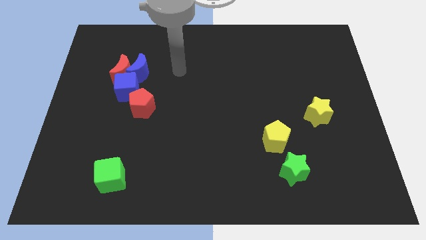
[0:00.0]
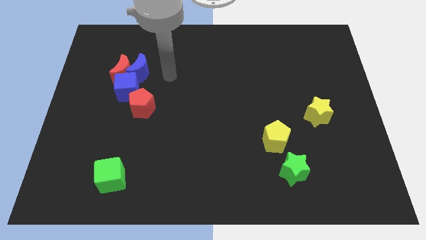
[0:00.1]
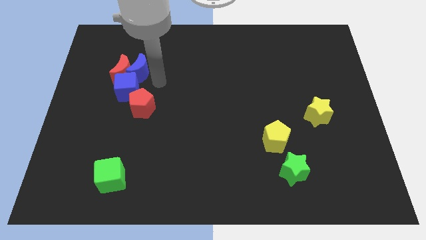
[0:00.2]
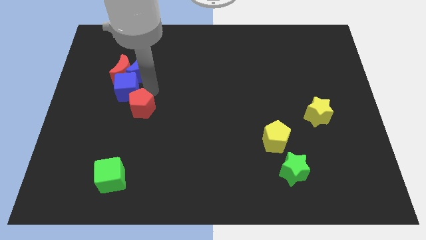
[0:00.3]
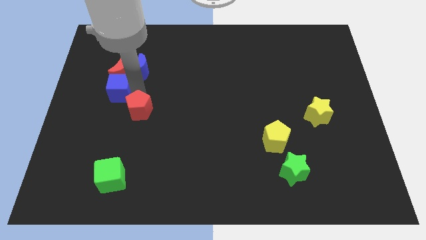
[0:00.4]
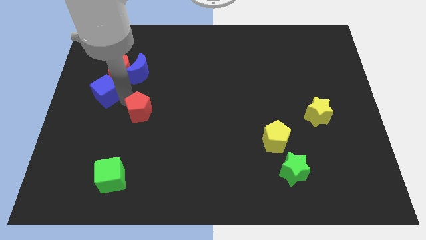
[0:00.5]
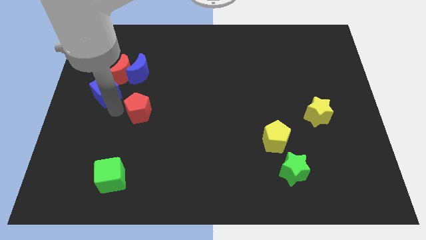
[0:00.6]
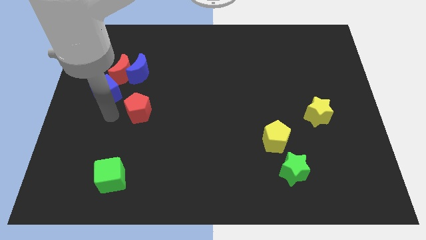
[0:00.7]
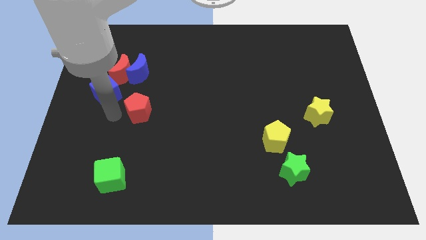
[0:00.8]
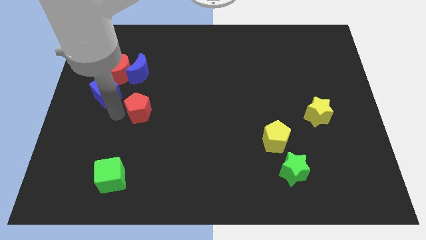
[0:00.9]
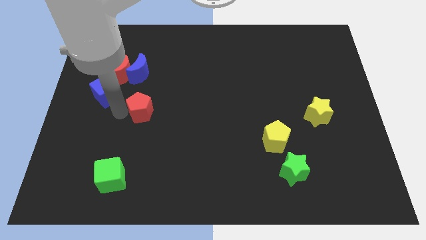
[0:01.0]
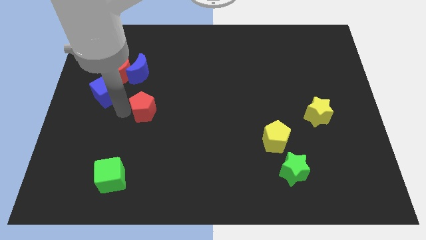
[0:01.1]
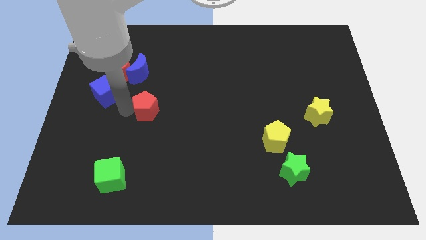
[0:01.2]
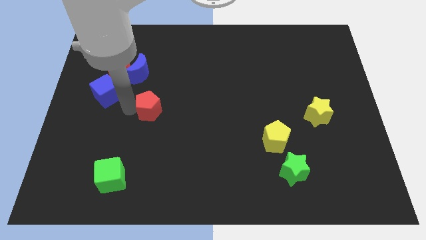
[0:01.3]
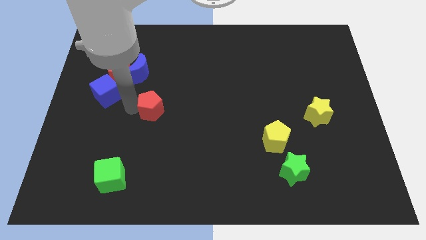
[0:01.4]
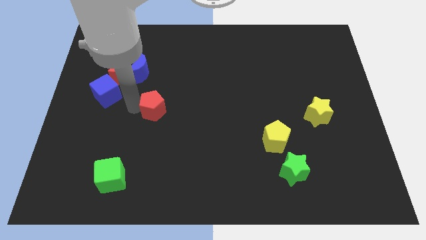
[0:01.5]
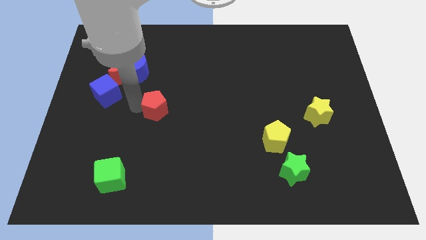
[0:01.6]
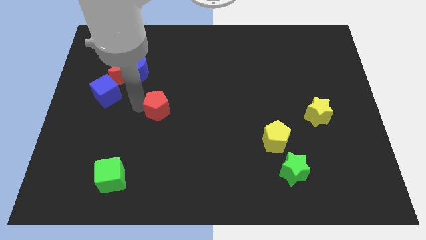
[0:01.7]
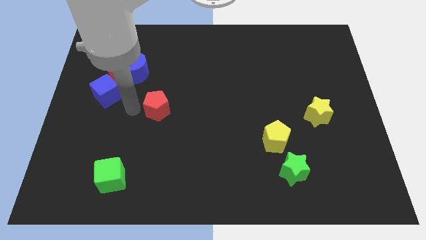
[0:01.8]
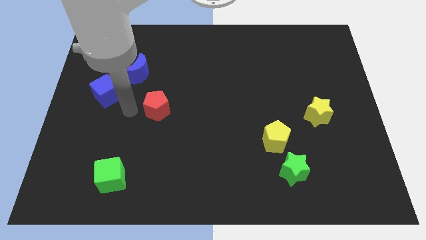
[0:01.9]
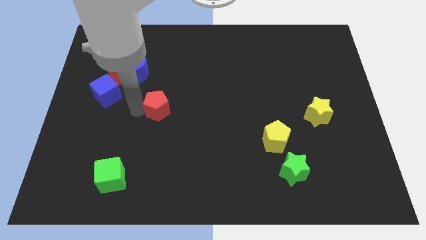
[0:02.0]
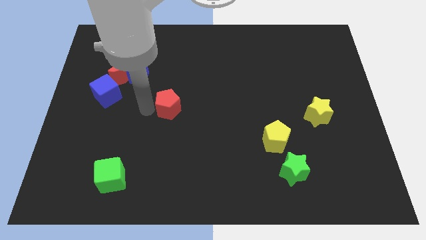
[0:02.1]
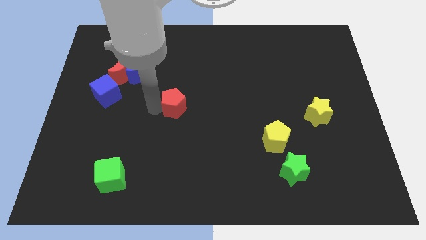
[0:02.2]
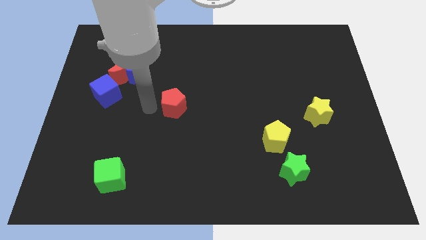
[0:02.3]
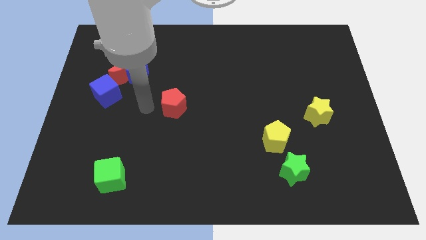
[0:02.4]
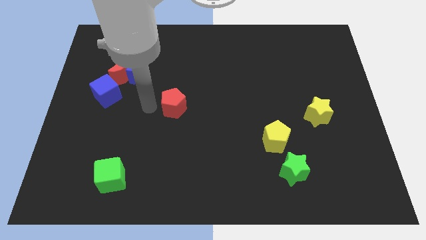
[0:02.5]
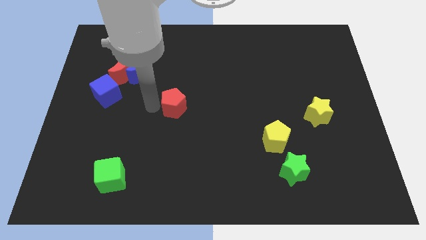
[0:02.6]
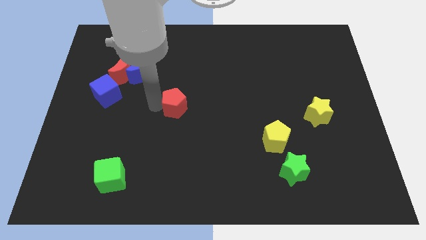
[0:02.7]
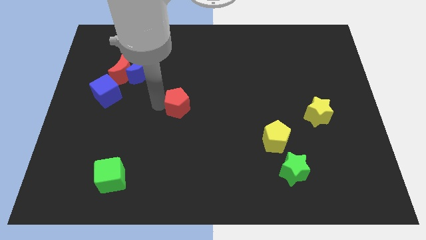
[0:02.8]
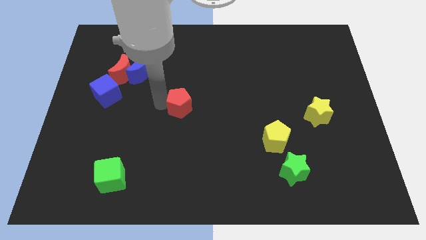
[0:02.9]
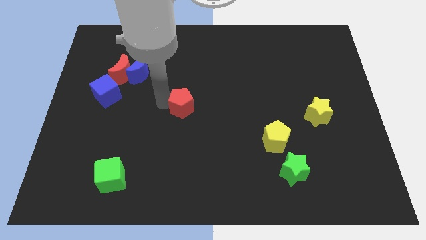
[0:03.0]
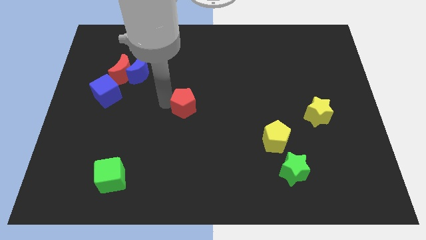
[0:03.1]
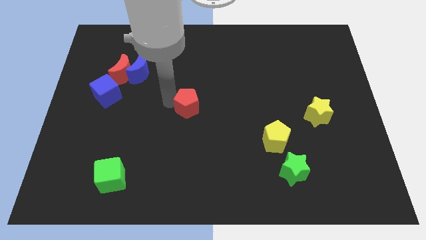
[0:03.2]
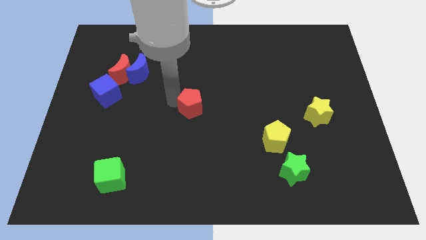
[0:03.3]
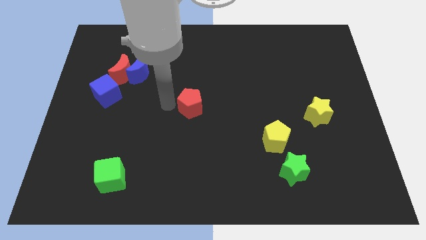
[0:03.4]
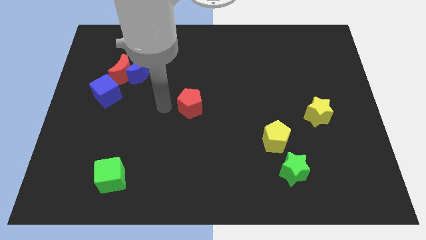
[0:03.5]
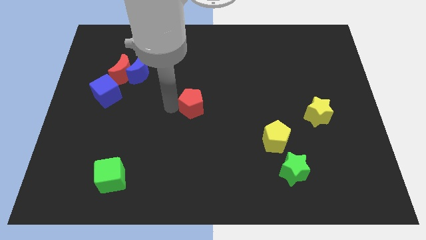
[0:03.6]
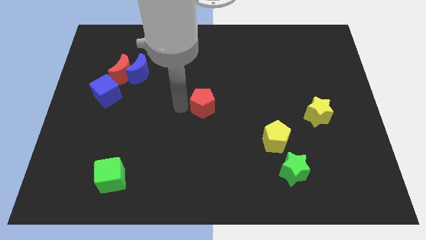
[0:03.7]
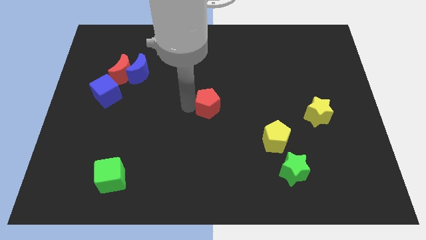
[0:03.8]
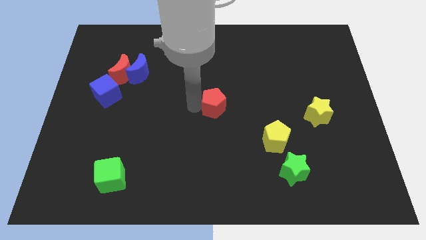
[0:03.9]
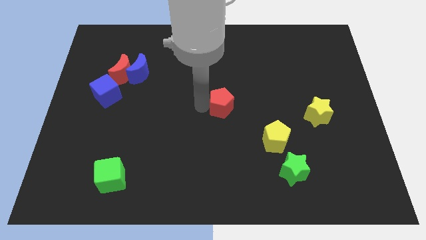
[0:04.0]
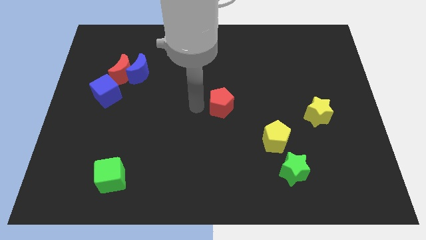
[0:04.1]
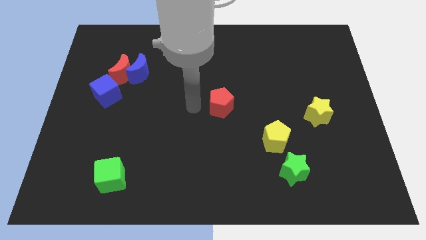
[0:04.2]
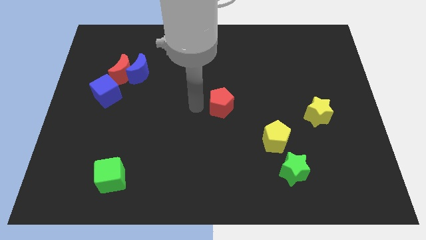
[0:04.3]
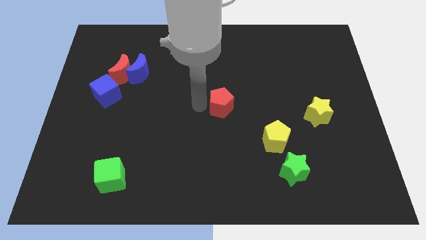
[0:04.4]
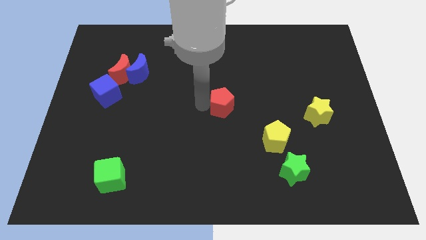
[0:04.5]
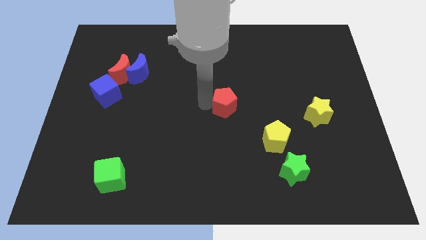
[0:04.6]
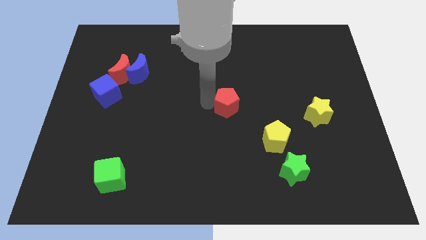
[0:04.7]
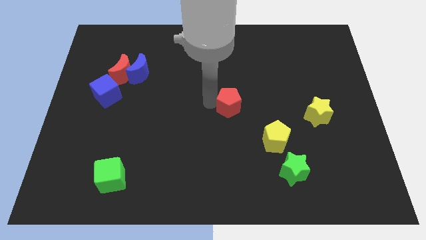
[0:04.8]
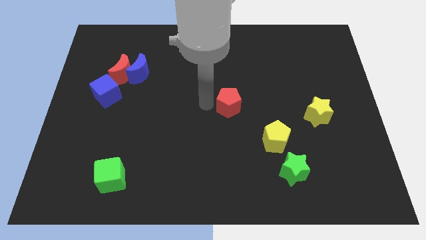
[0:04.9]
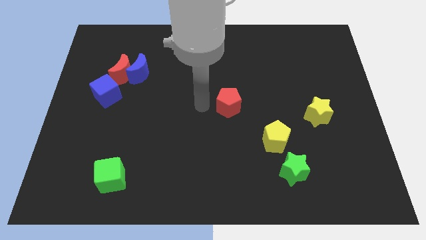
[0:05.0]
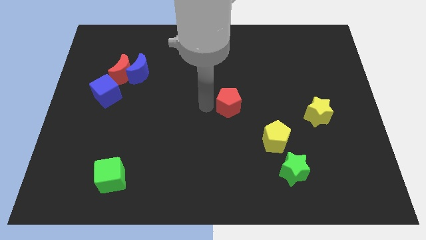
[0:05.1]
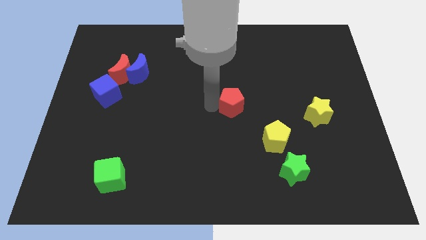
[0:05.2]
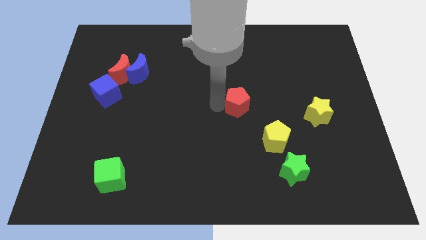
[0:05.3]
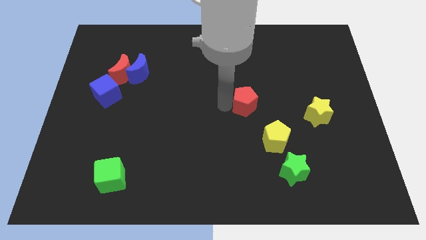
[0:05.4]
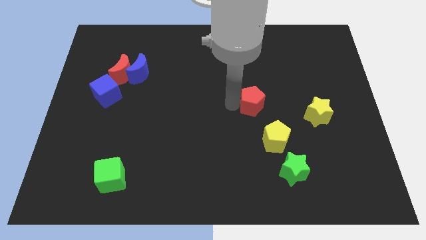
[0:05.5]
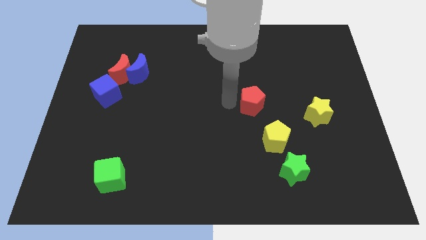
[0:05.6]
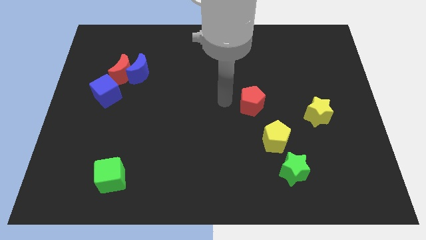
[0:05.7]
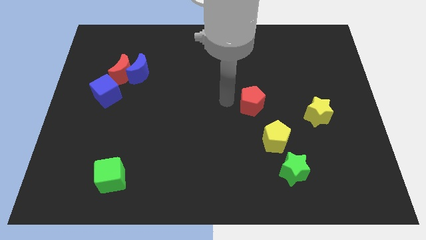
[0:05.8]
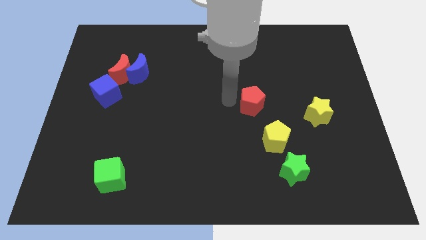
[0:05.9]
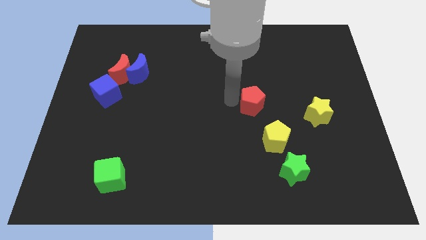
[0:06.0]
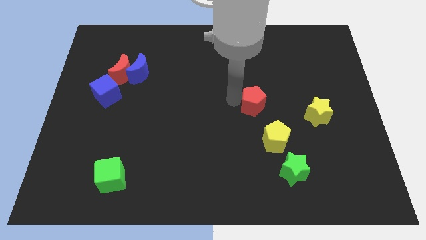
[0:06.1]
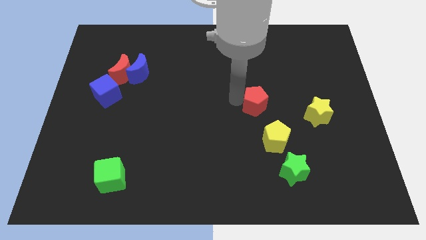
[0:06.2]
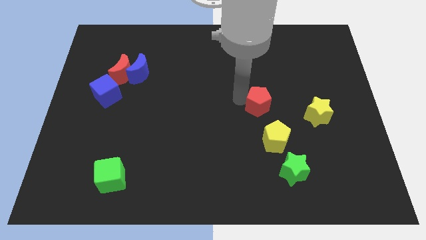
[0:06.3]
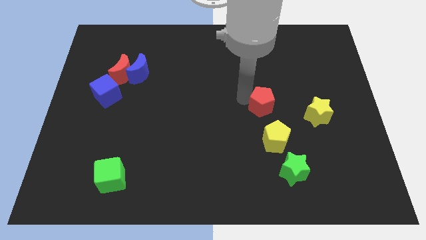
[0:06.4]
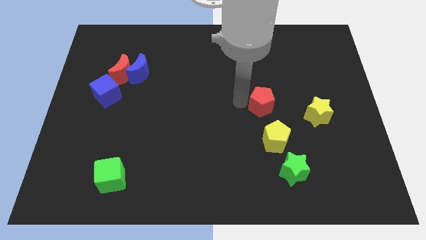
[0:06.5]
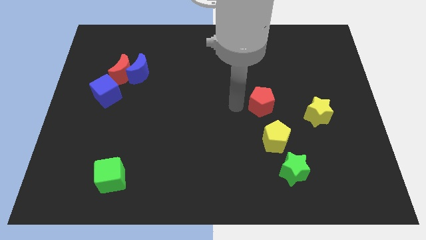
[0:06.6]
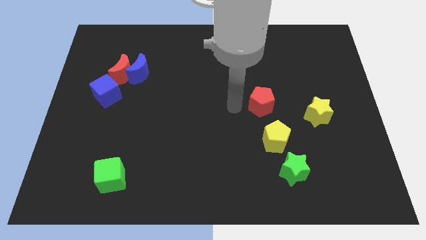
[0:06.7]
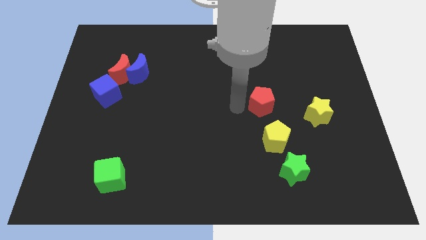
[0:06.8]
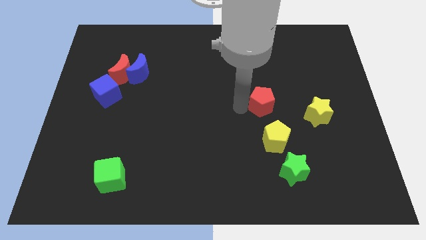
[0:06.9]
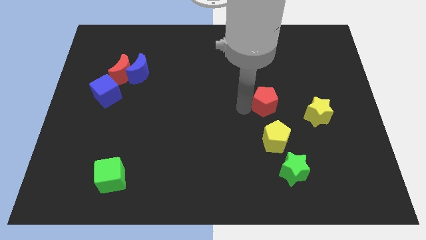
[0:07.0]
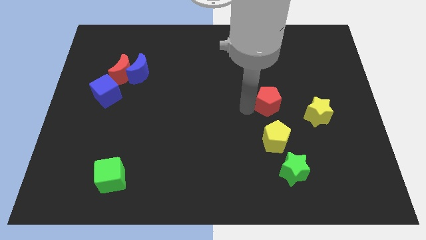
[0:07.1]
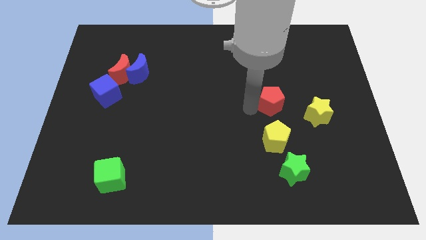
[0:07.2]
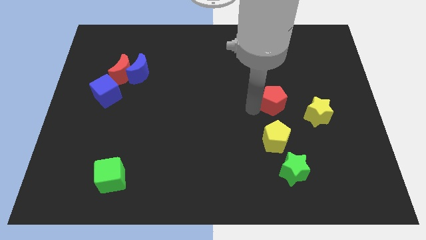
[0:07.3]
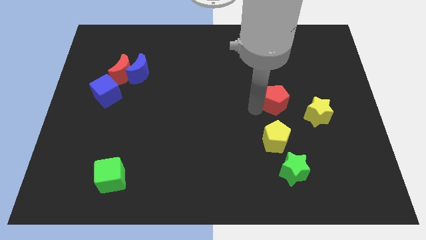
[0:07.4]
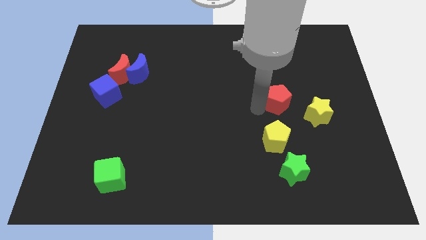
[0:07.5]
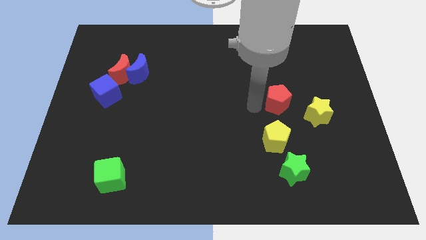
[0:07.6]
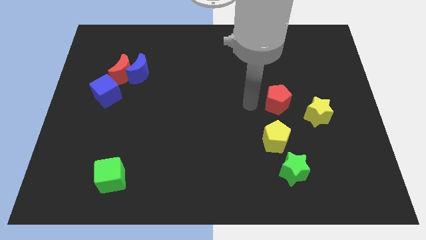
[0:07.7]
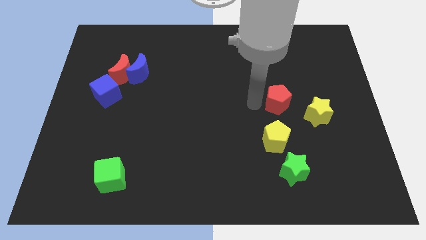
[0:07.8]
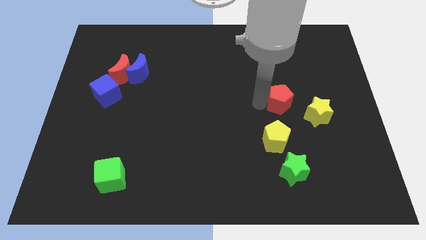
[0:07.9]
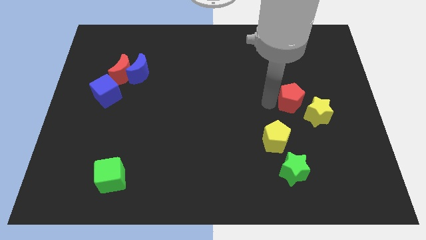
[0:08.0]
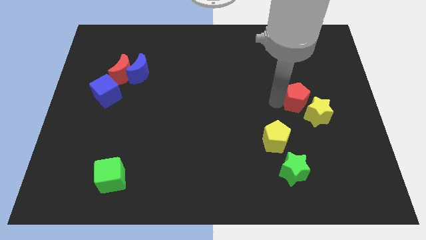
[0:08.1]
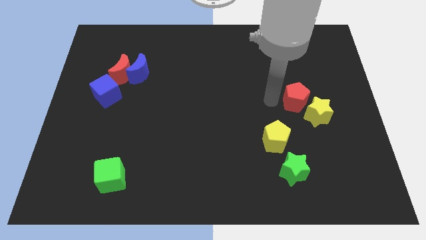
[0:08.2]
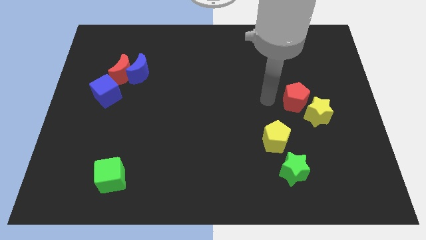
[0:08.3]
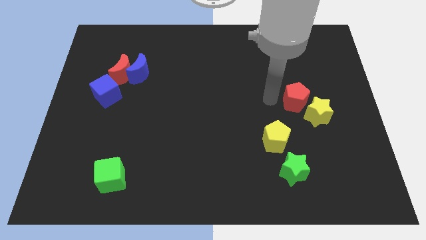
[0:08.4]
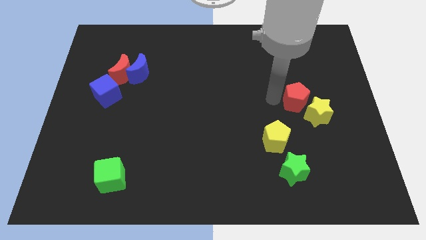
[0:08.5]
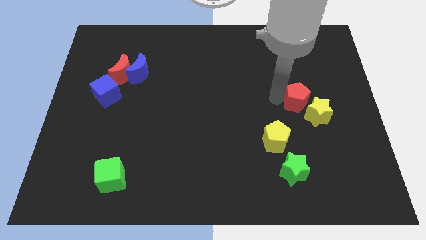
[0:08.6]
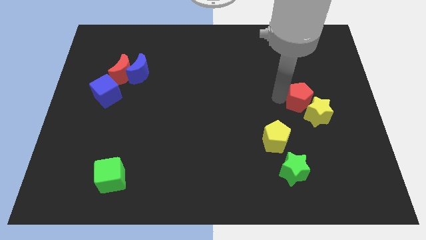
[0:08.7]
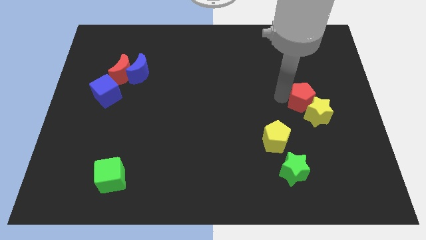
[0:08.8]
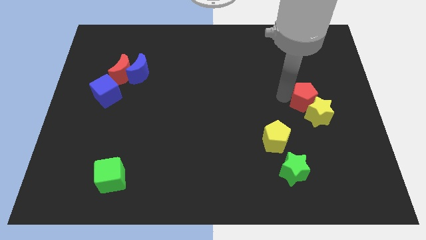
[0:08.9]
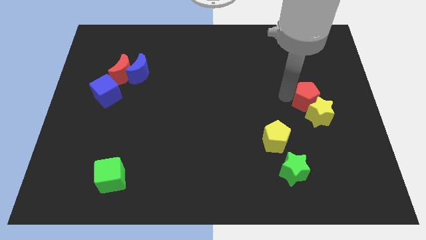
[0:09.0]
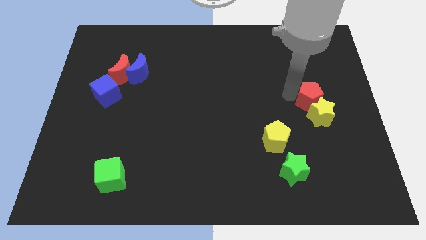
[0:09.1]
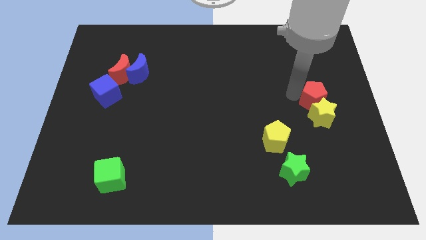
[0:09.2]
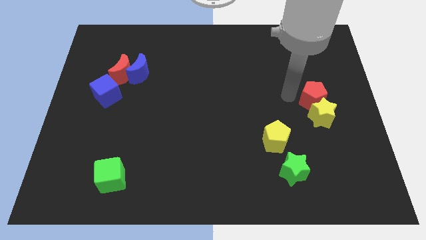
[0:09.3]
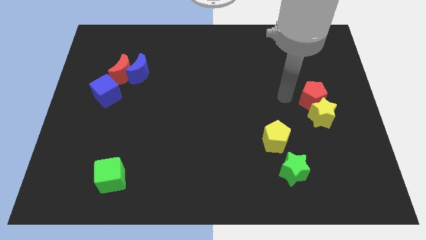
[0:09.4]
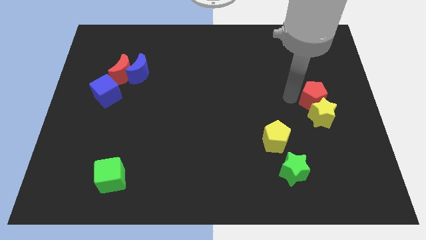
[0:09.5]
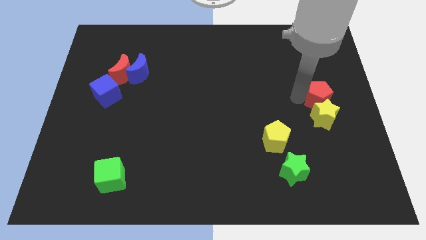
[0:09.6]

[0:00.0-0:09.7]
move the red pentagon to the center right
